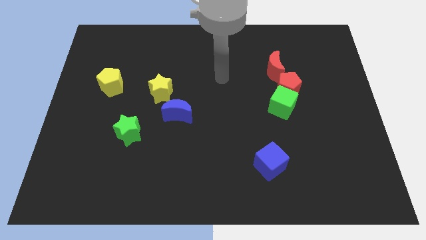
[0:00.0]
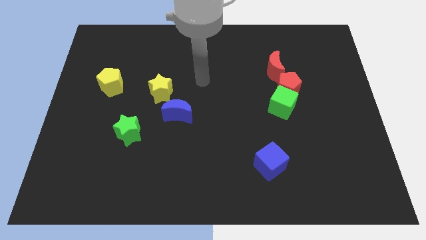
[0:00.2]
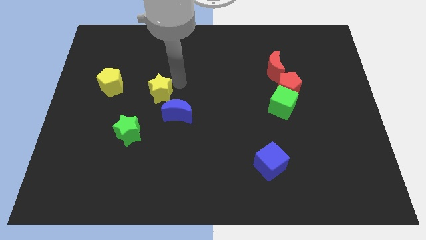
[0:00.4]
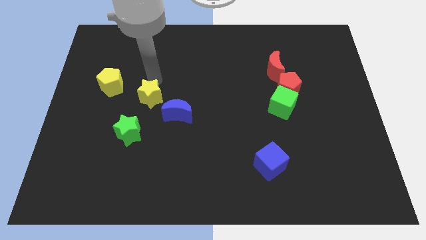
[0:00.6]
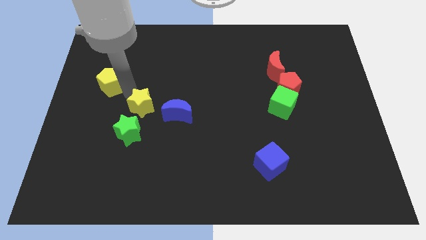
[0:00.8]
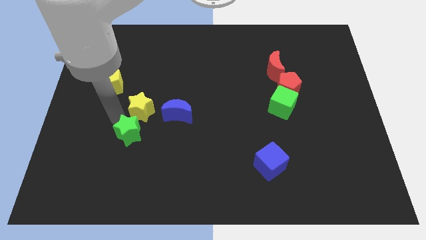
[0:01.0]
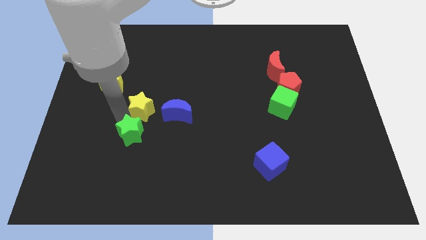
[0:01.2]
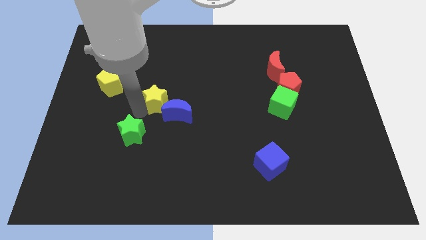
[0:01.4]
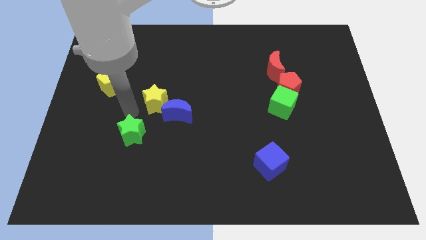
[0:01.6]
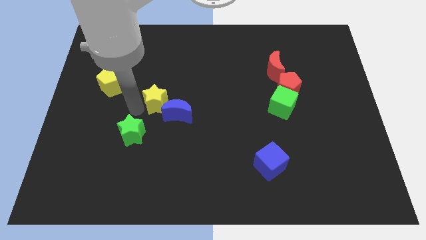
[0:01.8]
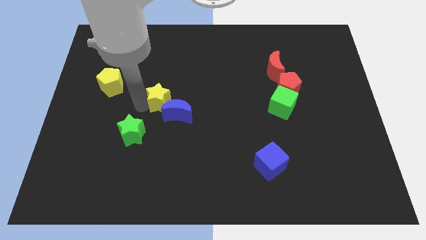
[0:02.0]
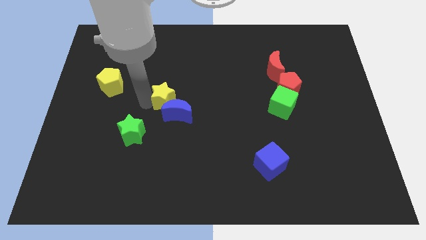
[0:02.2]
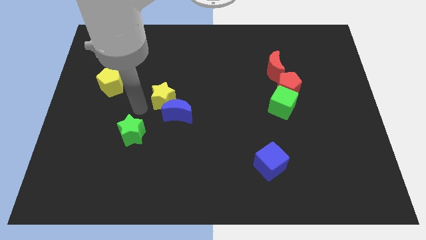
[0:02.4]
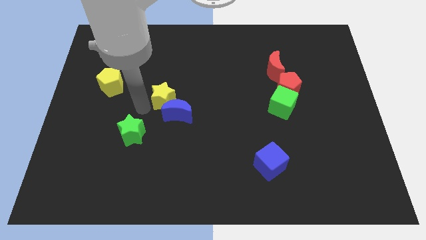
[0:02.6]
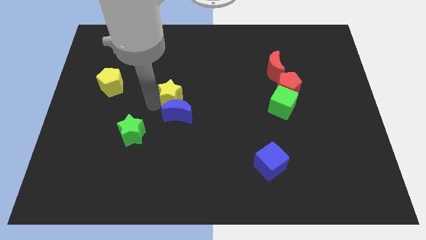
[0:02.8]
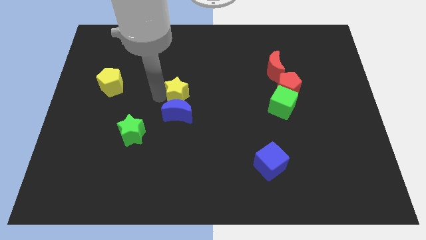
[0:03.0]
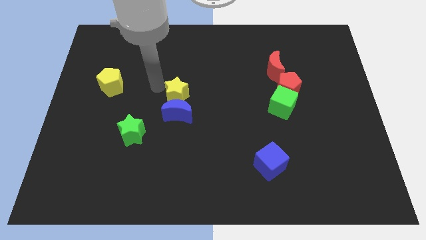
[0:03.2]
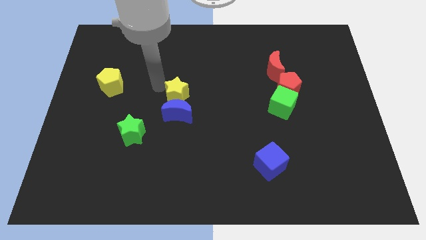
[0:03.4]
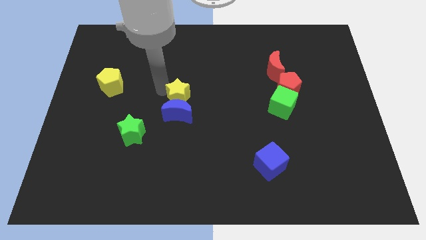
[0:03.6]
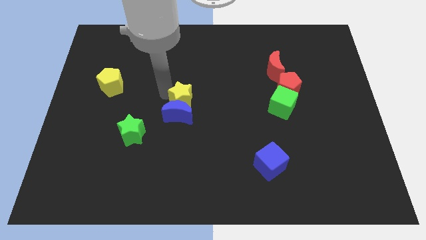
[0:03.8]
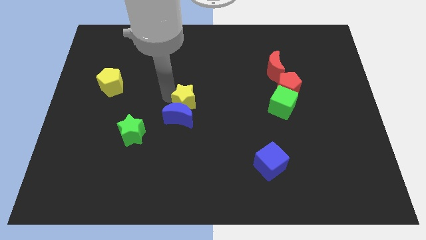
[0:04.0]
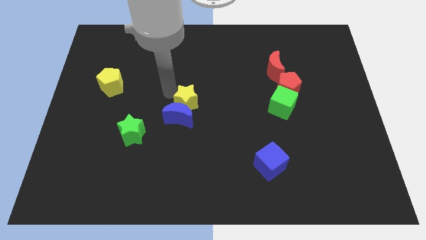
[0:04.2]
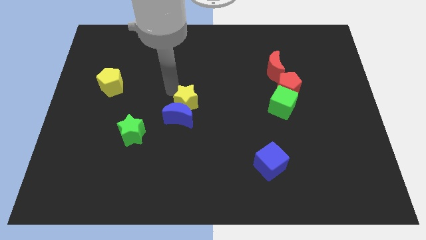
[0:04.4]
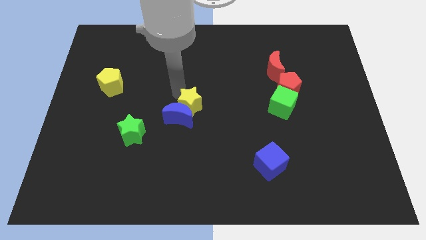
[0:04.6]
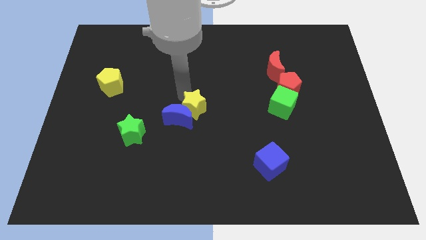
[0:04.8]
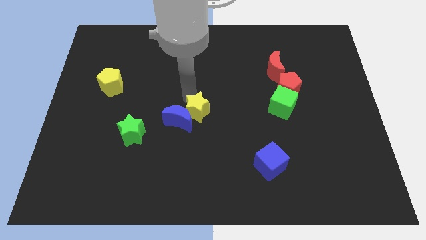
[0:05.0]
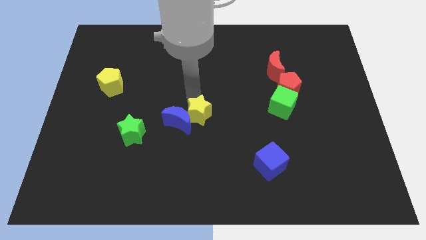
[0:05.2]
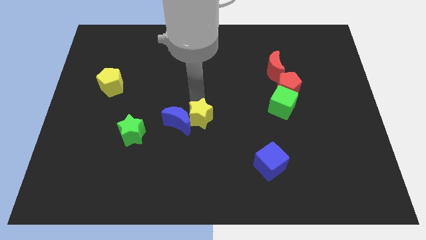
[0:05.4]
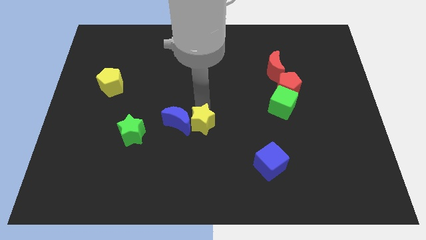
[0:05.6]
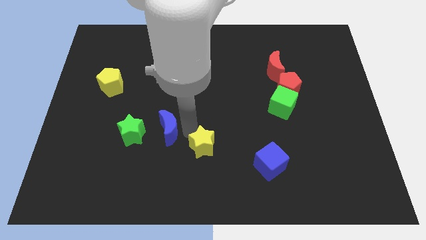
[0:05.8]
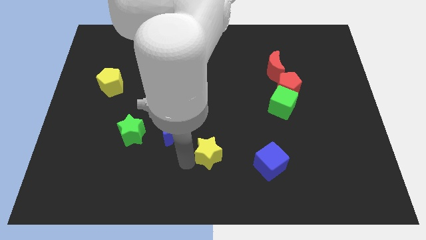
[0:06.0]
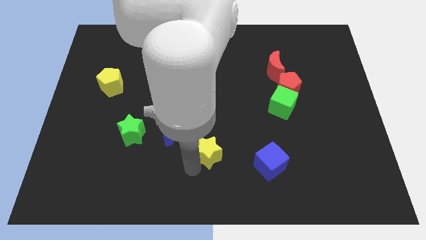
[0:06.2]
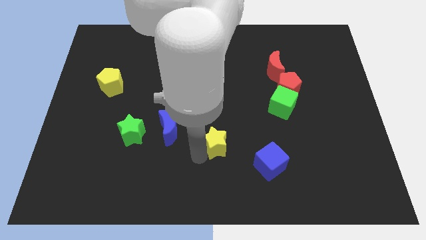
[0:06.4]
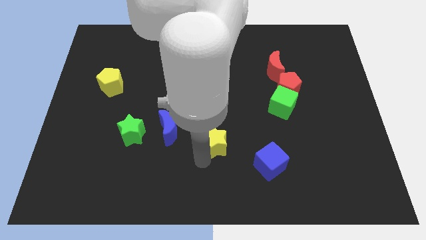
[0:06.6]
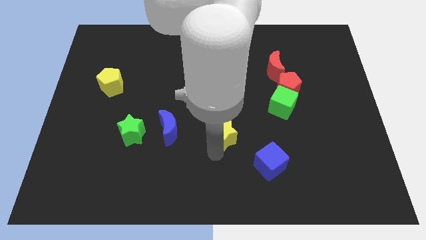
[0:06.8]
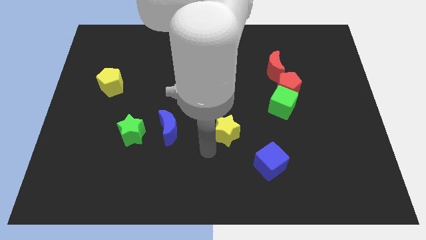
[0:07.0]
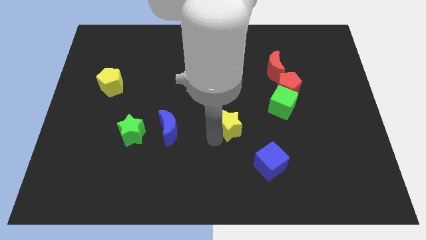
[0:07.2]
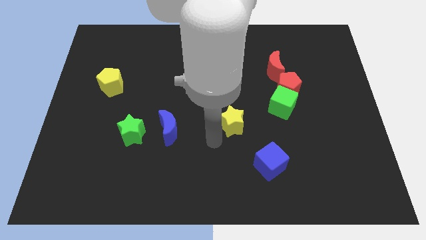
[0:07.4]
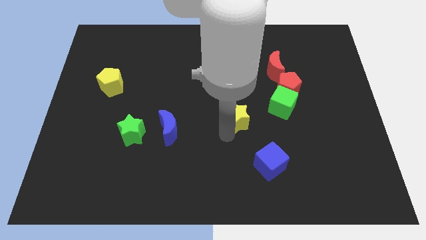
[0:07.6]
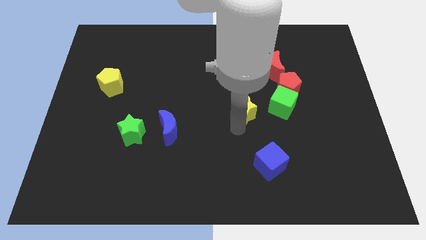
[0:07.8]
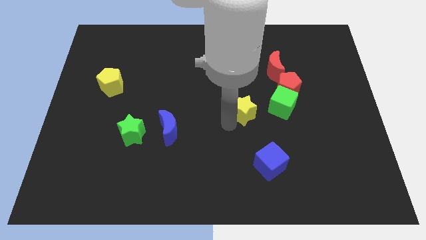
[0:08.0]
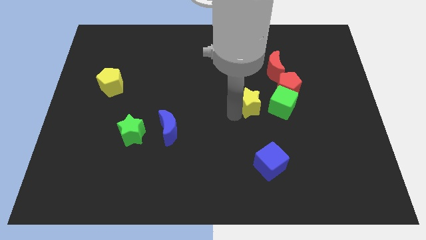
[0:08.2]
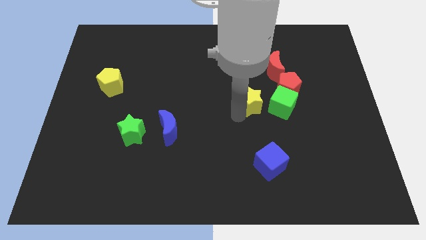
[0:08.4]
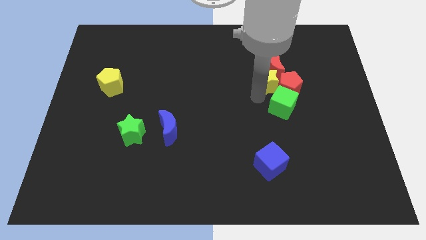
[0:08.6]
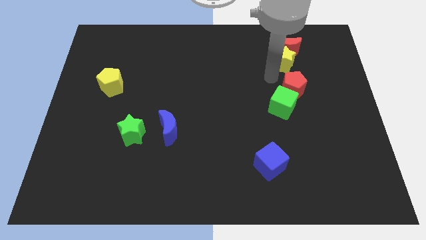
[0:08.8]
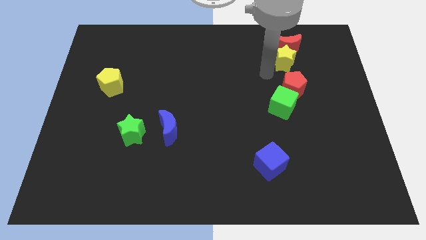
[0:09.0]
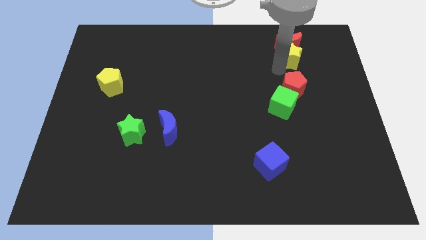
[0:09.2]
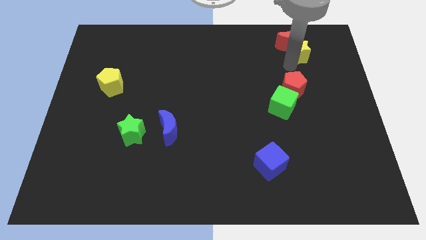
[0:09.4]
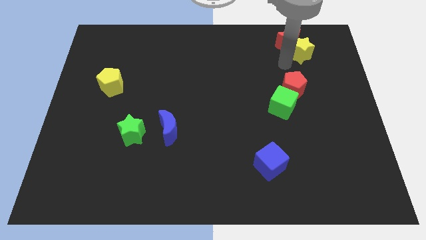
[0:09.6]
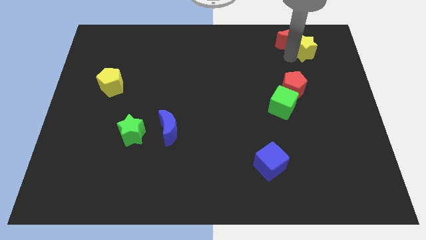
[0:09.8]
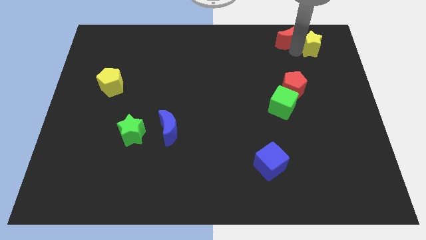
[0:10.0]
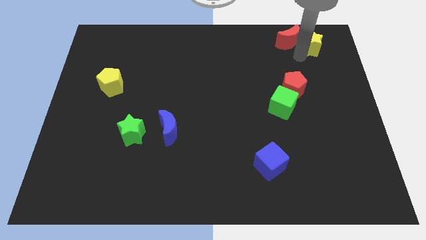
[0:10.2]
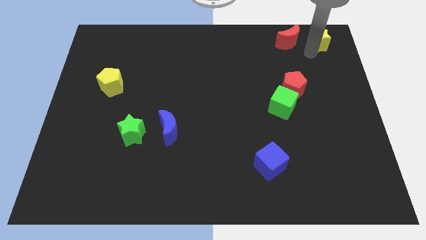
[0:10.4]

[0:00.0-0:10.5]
push the yellow star to the upper right corner
